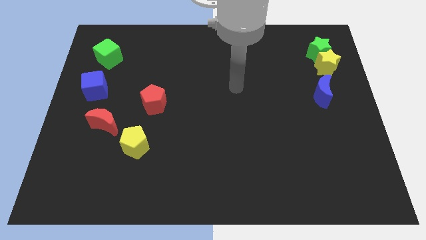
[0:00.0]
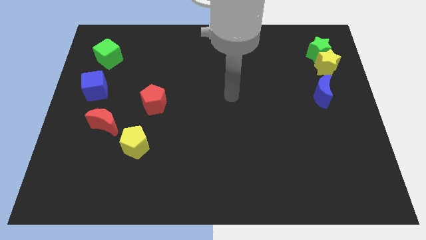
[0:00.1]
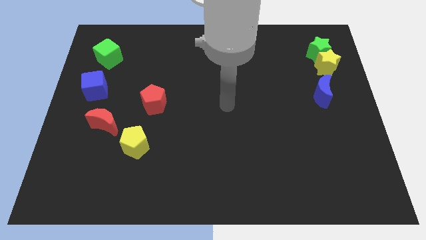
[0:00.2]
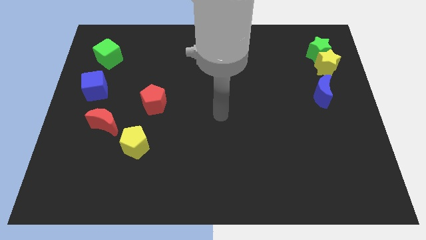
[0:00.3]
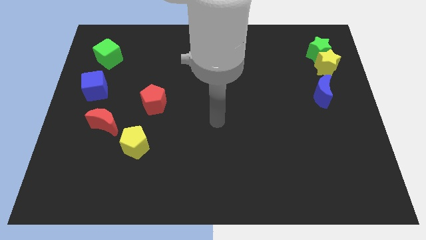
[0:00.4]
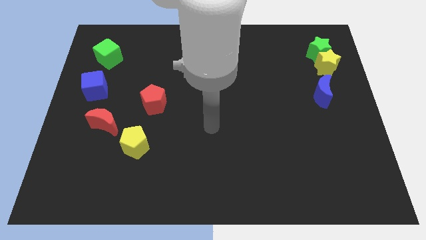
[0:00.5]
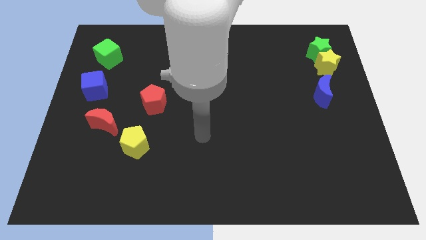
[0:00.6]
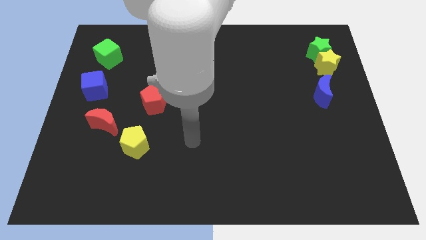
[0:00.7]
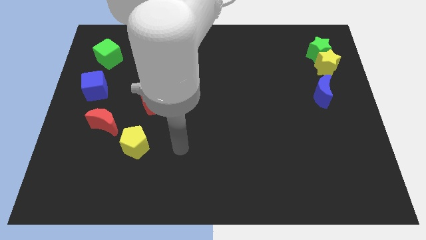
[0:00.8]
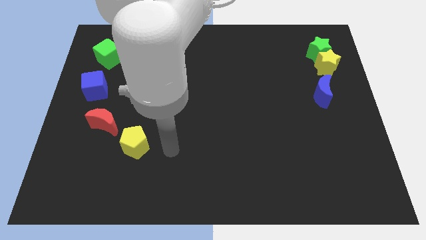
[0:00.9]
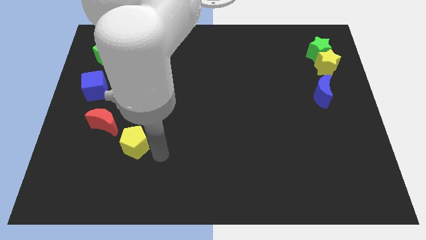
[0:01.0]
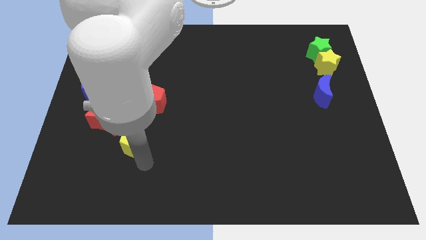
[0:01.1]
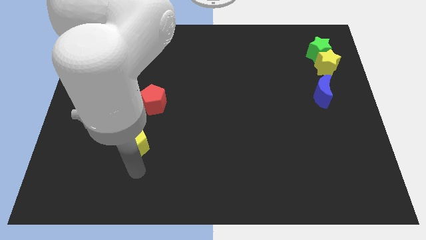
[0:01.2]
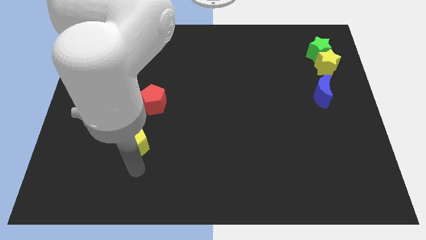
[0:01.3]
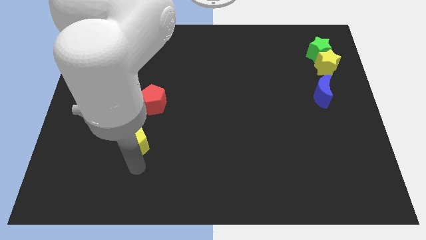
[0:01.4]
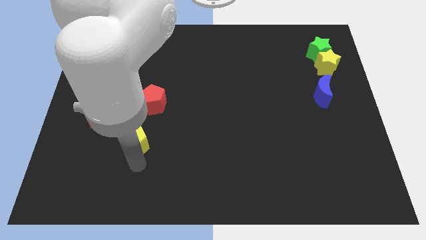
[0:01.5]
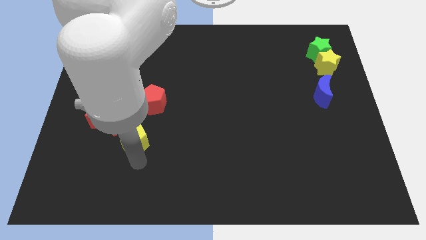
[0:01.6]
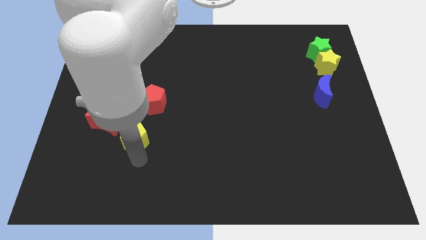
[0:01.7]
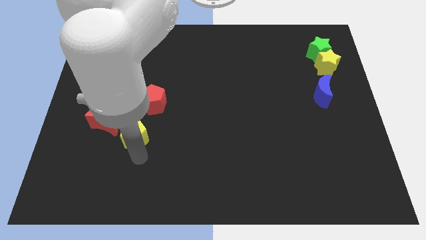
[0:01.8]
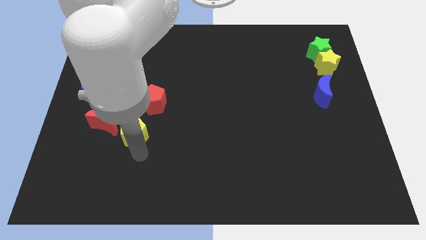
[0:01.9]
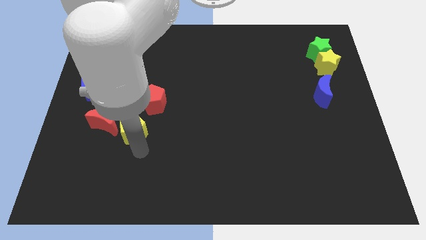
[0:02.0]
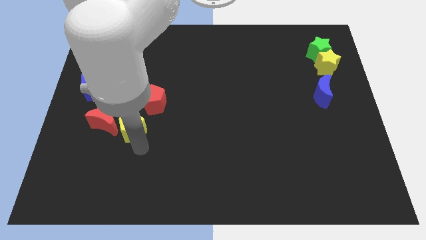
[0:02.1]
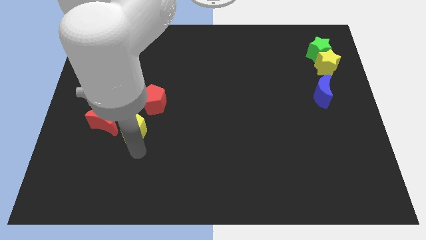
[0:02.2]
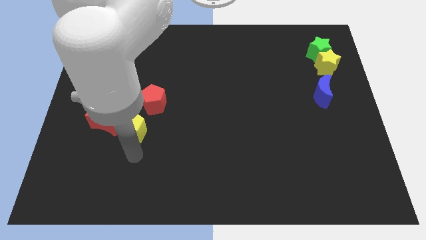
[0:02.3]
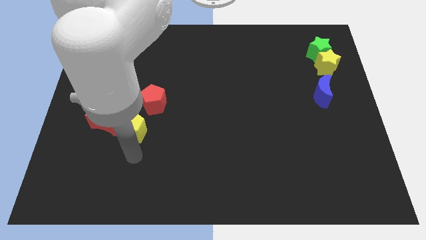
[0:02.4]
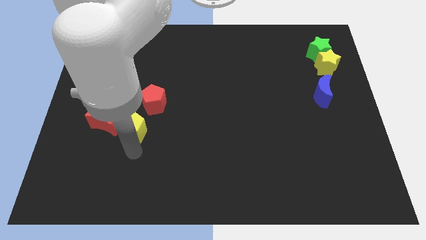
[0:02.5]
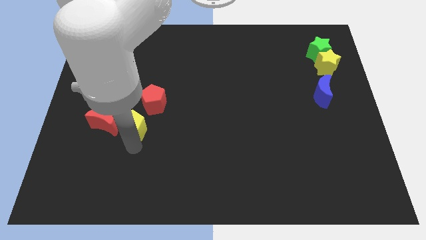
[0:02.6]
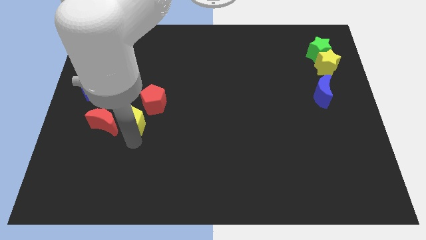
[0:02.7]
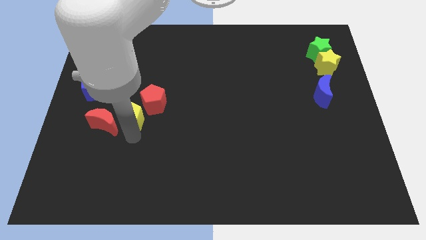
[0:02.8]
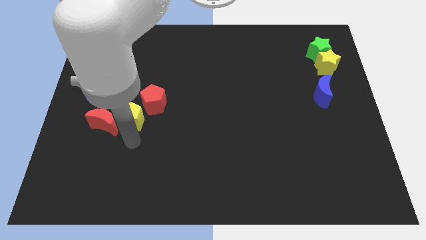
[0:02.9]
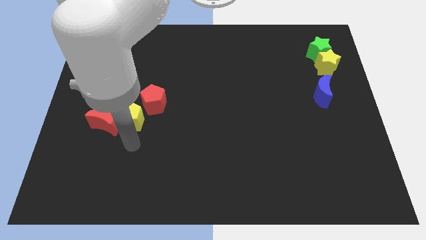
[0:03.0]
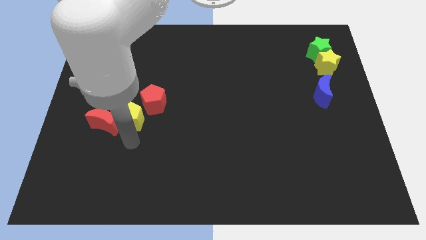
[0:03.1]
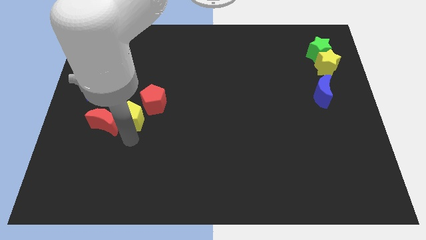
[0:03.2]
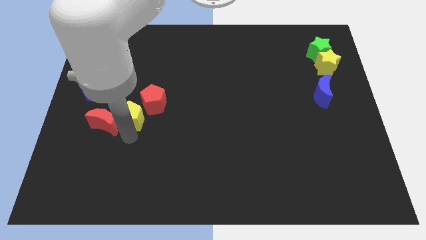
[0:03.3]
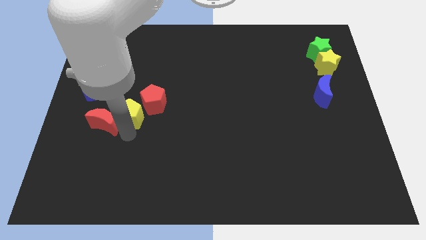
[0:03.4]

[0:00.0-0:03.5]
slightly slide the yellow pentagon upwards

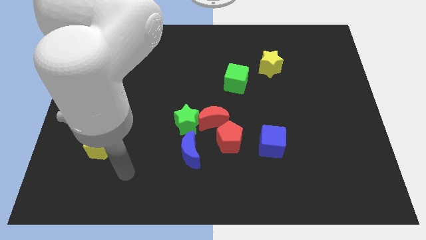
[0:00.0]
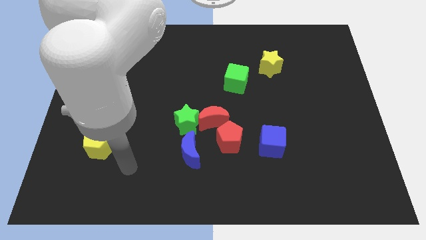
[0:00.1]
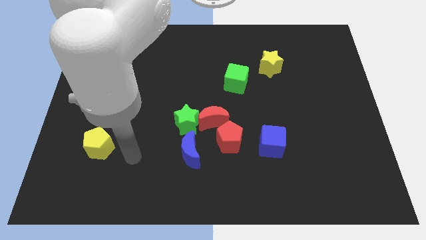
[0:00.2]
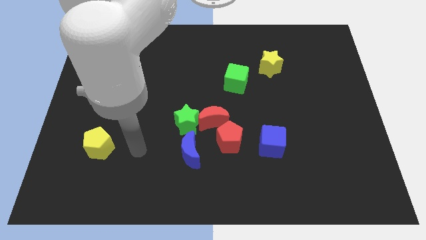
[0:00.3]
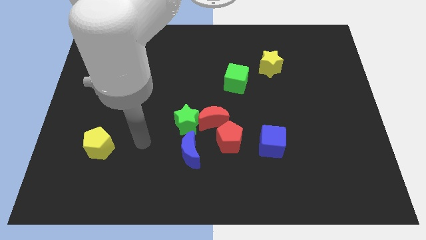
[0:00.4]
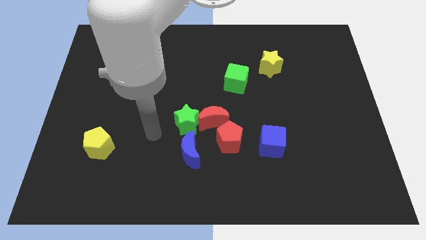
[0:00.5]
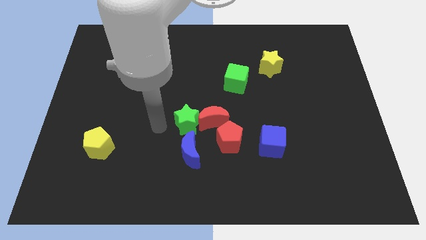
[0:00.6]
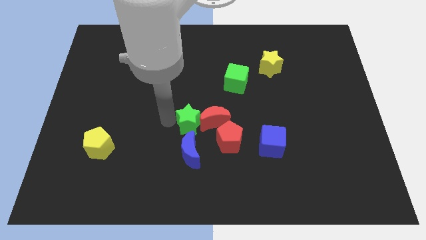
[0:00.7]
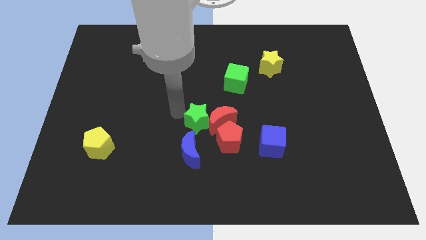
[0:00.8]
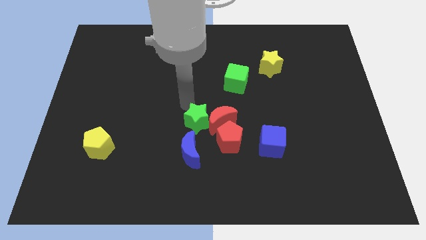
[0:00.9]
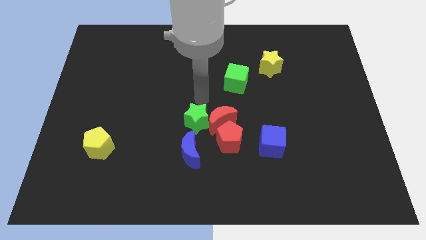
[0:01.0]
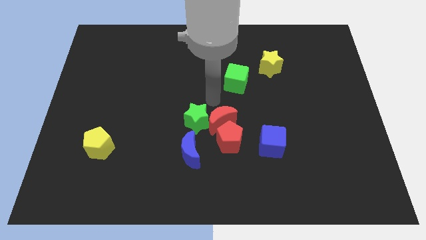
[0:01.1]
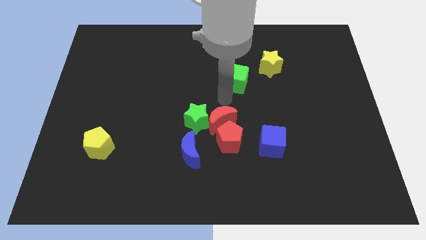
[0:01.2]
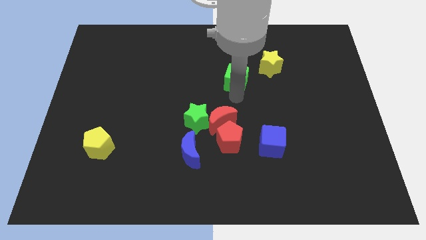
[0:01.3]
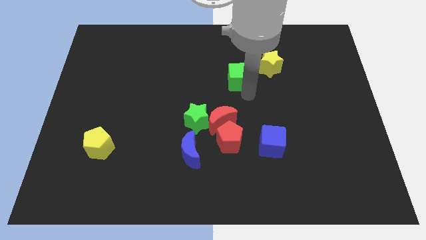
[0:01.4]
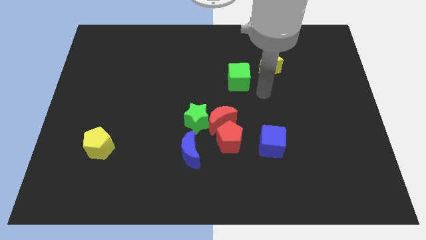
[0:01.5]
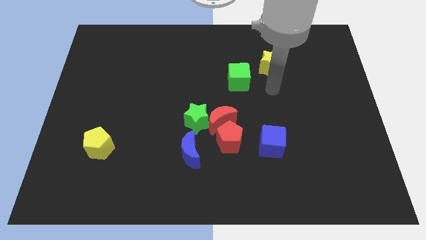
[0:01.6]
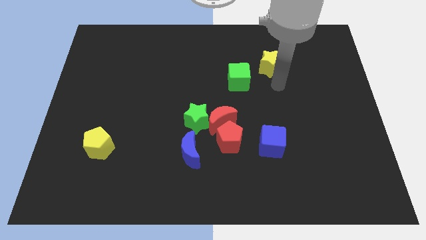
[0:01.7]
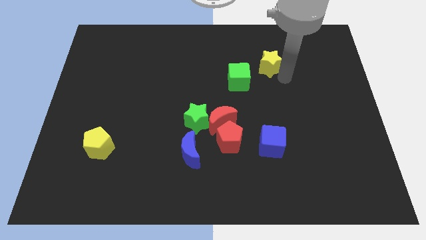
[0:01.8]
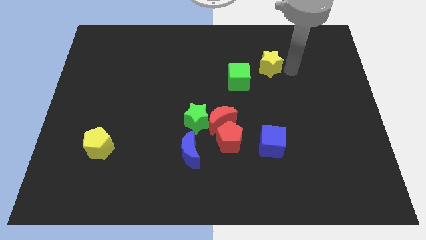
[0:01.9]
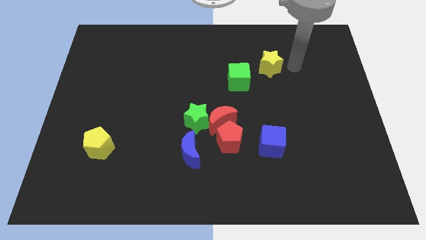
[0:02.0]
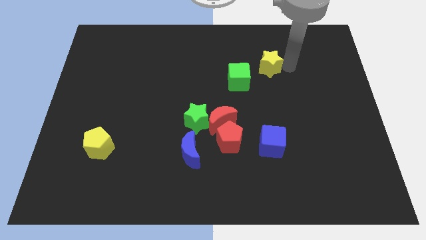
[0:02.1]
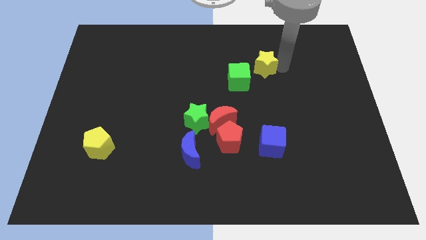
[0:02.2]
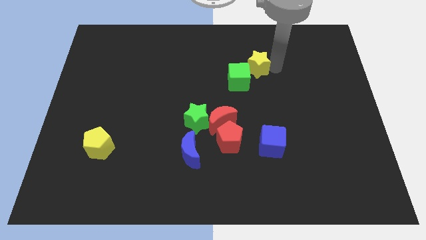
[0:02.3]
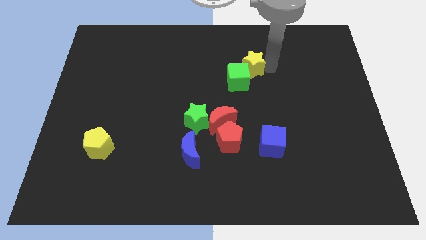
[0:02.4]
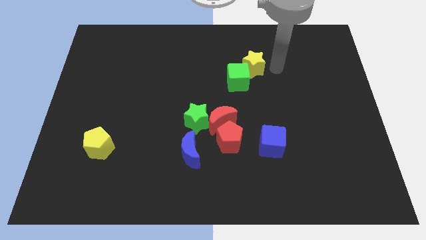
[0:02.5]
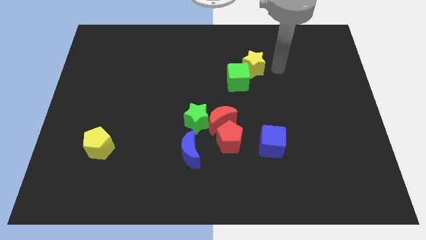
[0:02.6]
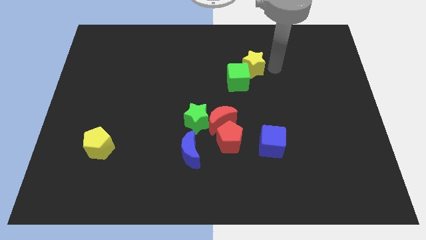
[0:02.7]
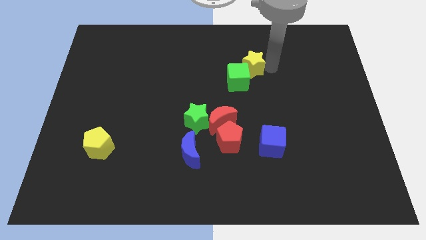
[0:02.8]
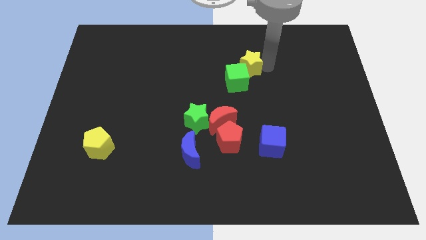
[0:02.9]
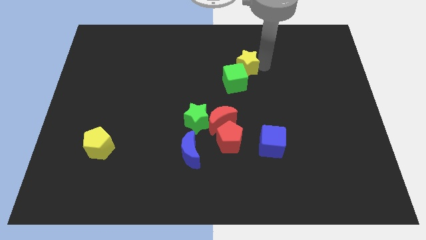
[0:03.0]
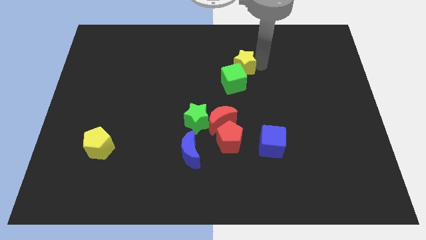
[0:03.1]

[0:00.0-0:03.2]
slide the yellow star a bit left

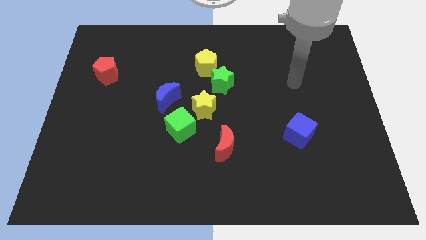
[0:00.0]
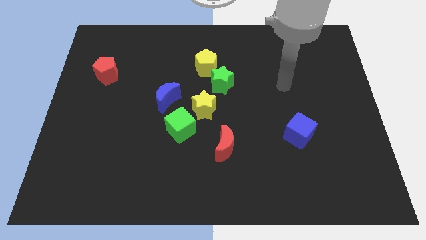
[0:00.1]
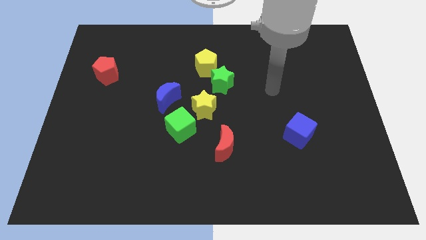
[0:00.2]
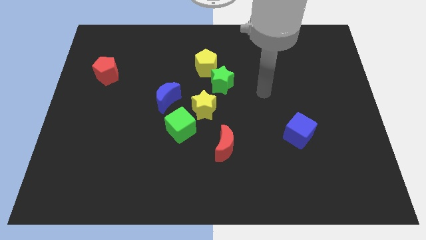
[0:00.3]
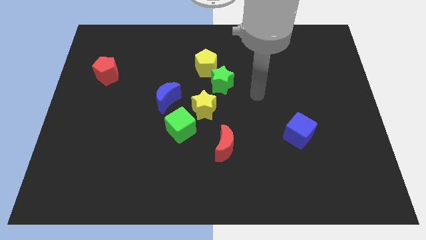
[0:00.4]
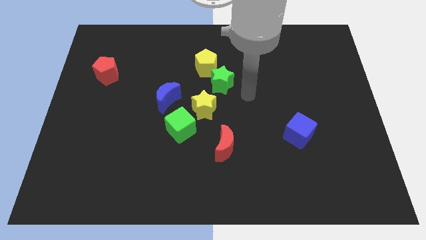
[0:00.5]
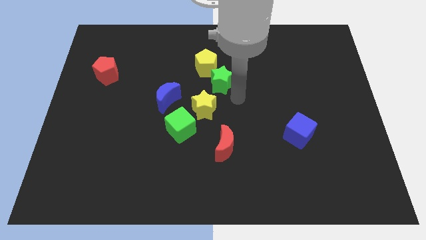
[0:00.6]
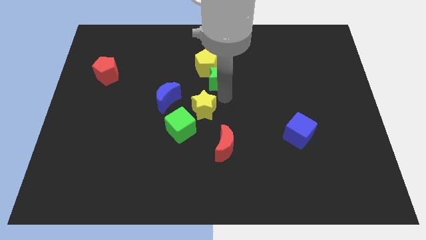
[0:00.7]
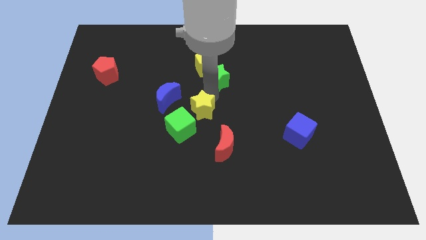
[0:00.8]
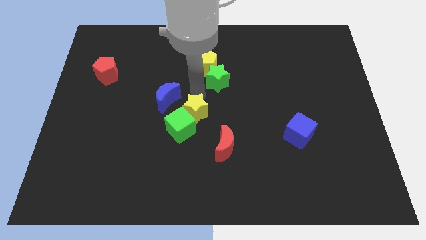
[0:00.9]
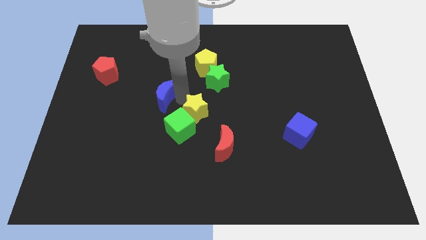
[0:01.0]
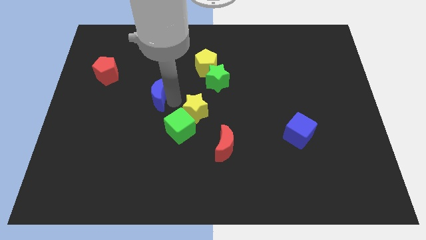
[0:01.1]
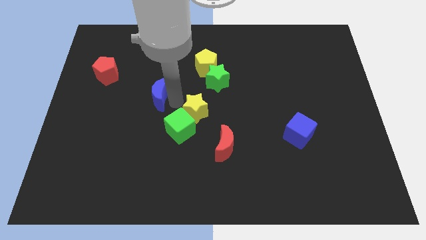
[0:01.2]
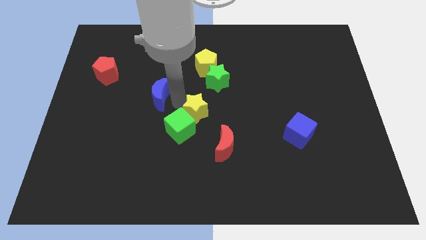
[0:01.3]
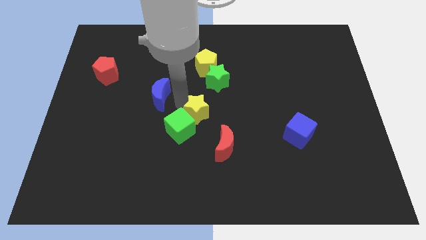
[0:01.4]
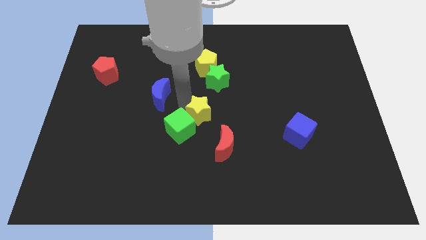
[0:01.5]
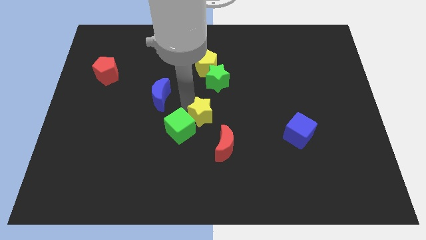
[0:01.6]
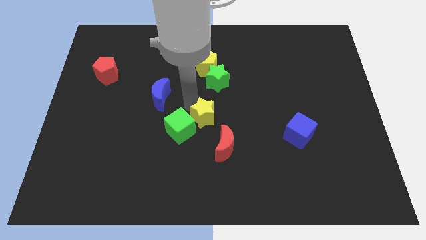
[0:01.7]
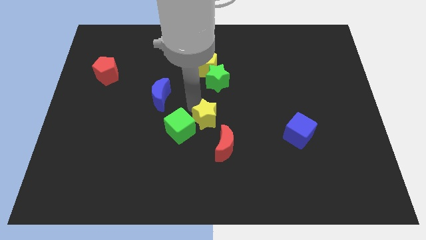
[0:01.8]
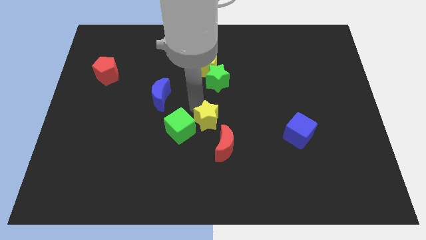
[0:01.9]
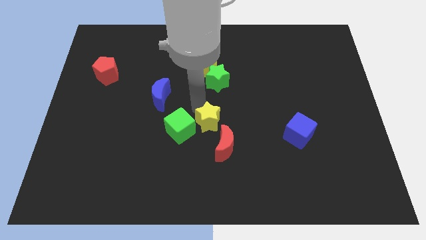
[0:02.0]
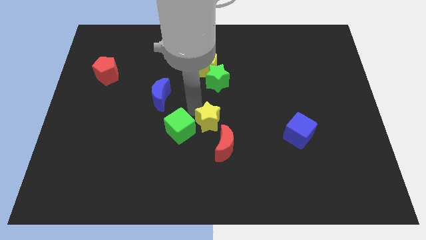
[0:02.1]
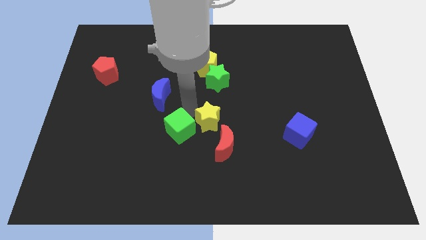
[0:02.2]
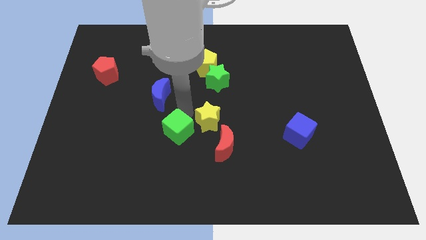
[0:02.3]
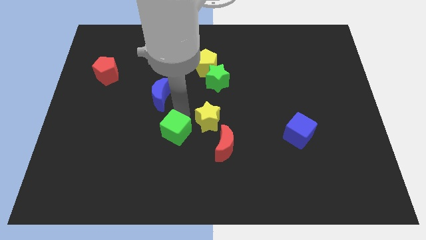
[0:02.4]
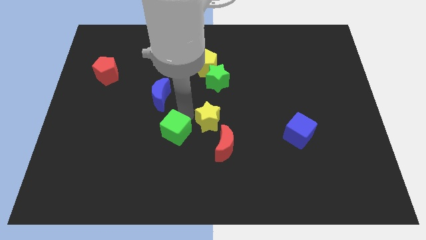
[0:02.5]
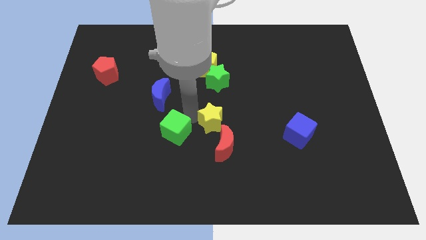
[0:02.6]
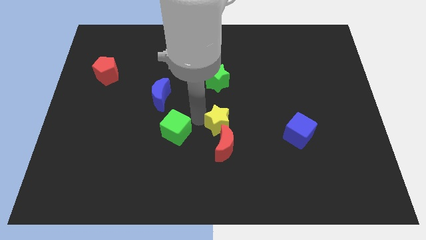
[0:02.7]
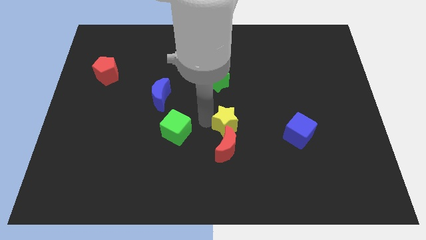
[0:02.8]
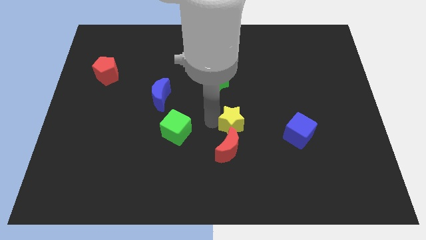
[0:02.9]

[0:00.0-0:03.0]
slide the yellow star somewhat down and right
